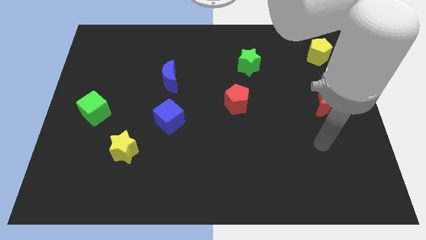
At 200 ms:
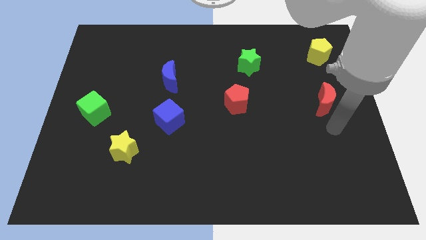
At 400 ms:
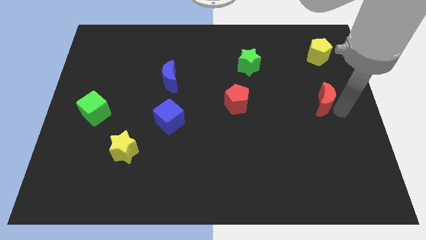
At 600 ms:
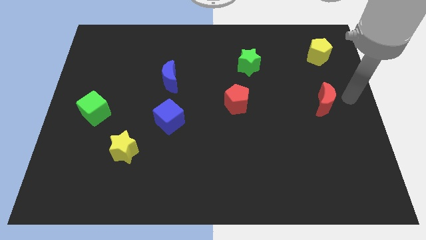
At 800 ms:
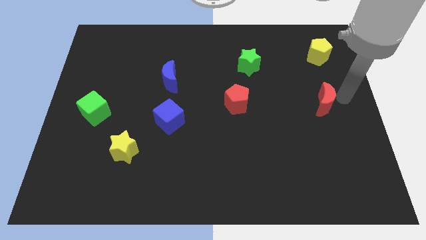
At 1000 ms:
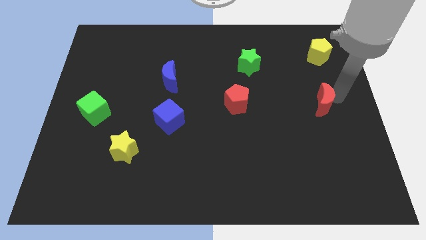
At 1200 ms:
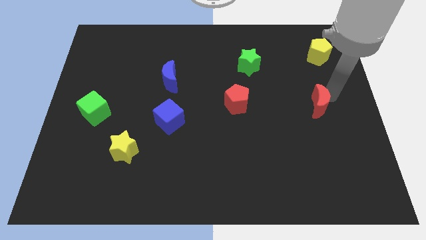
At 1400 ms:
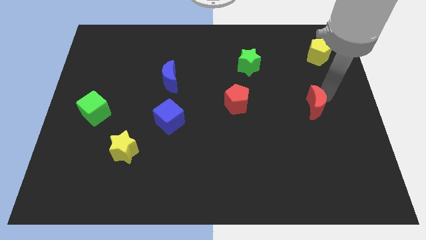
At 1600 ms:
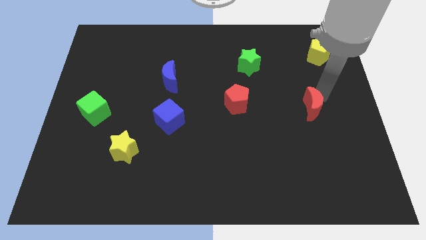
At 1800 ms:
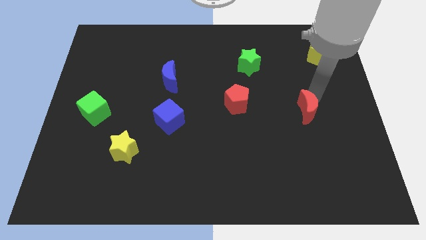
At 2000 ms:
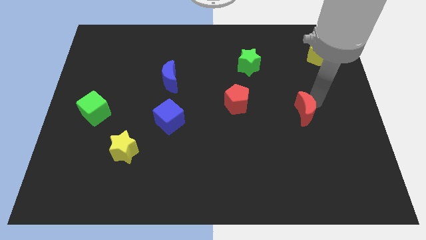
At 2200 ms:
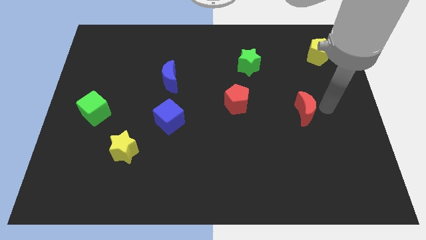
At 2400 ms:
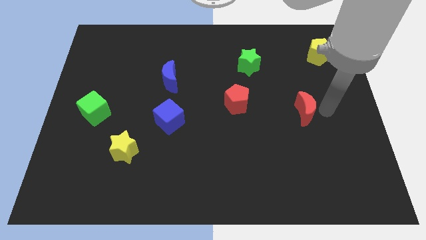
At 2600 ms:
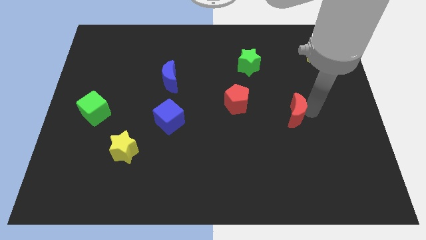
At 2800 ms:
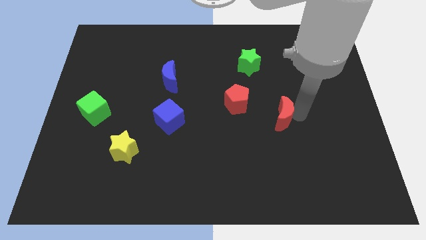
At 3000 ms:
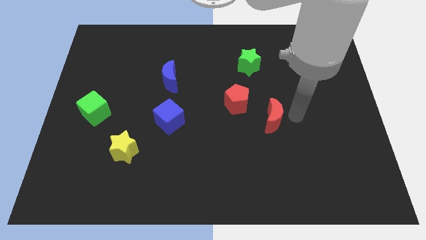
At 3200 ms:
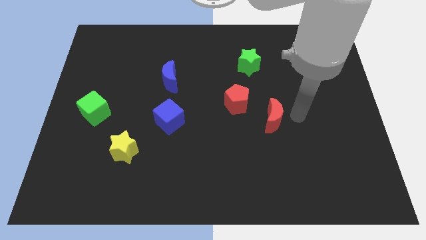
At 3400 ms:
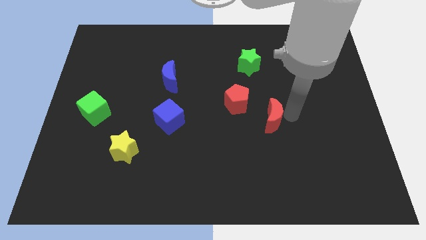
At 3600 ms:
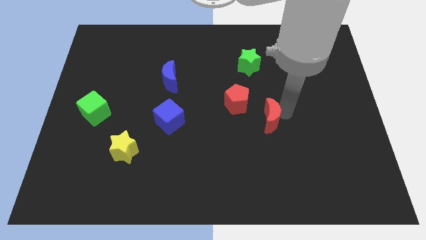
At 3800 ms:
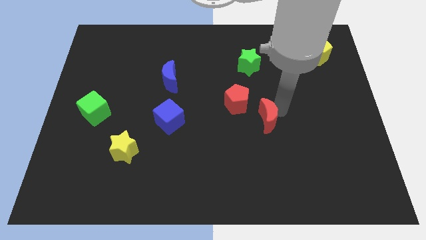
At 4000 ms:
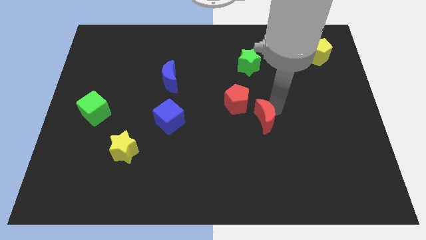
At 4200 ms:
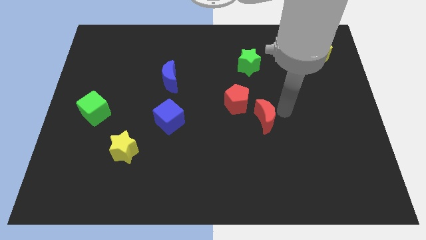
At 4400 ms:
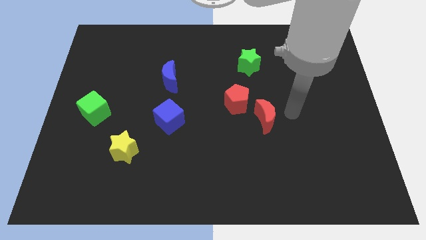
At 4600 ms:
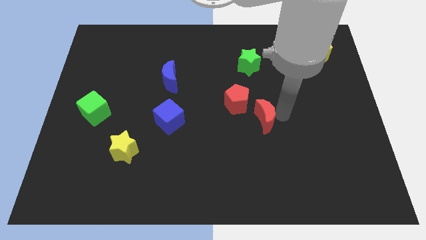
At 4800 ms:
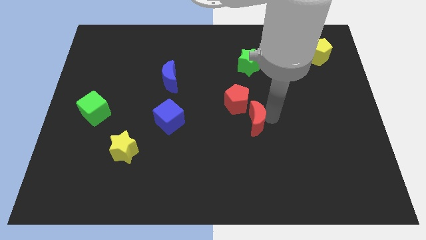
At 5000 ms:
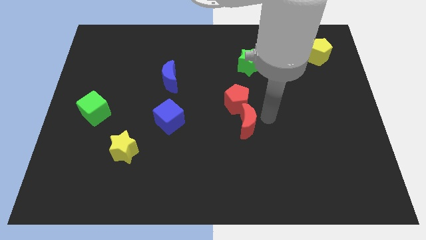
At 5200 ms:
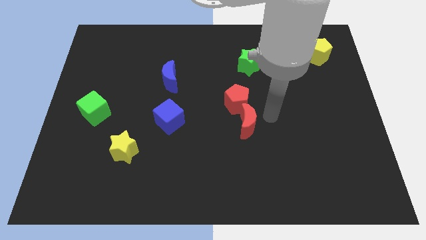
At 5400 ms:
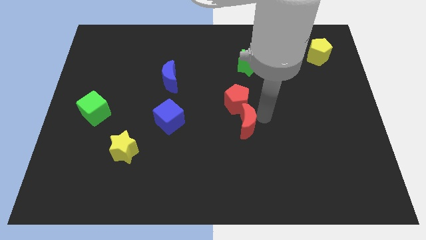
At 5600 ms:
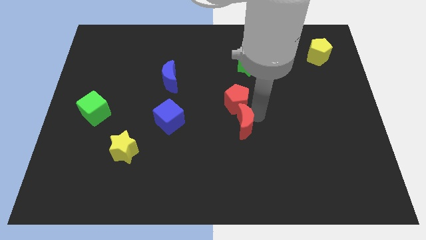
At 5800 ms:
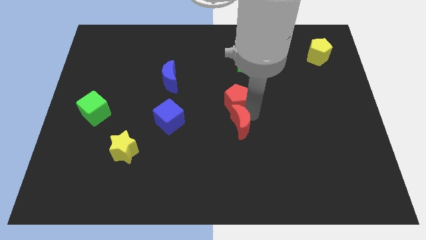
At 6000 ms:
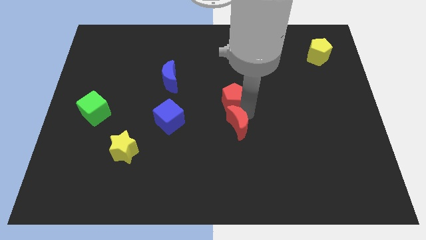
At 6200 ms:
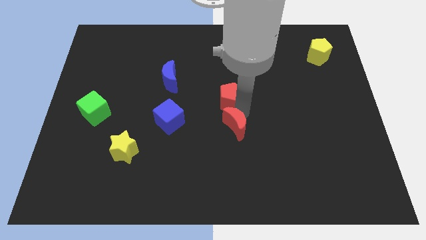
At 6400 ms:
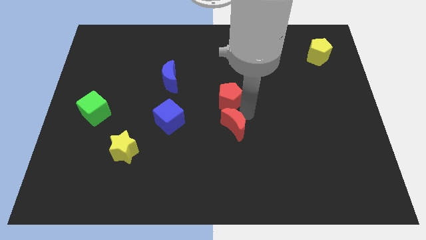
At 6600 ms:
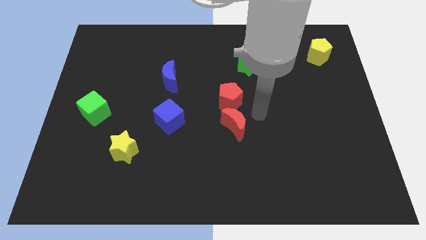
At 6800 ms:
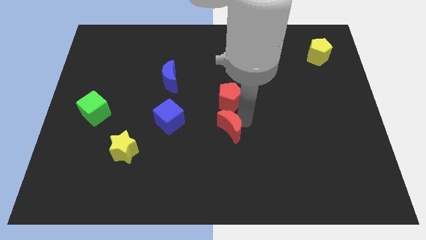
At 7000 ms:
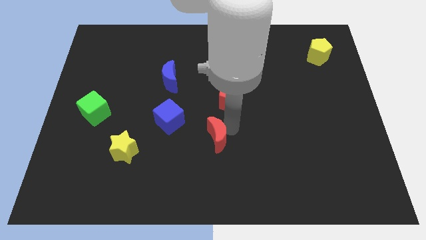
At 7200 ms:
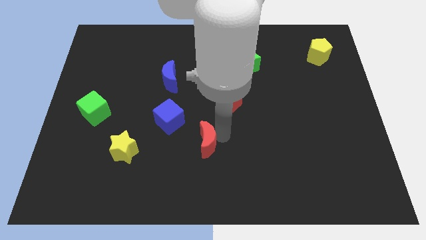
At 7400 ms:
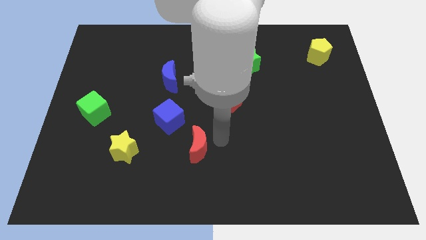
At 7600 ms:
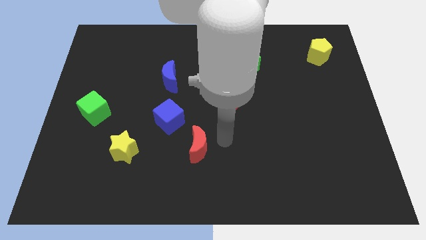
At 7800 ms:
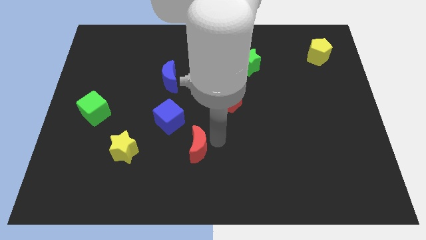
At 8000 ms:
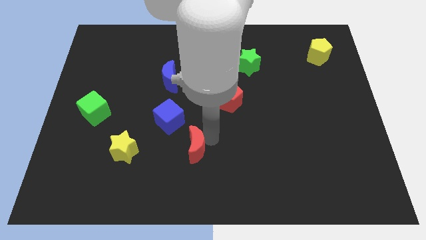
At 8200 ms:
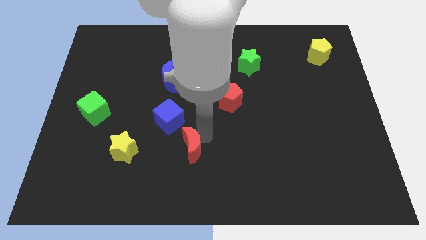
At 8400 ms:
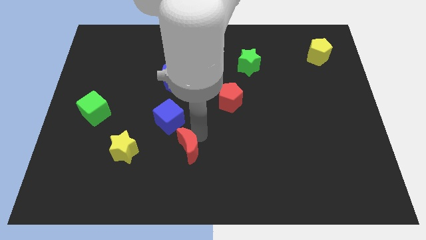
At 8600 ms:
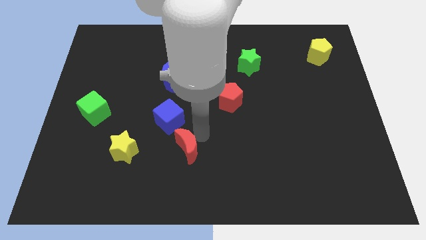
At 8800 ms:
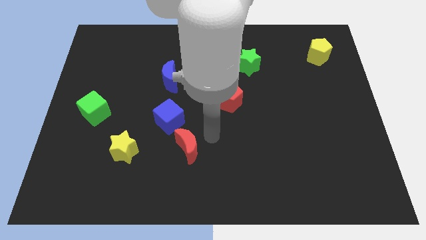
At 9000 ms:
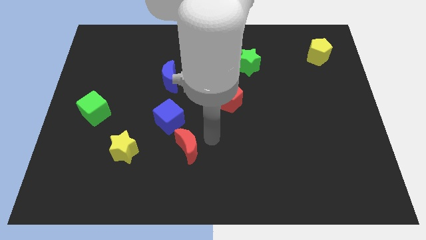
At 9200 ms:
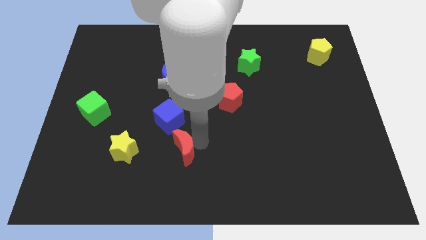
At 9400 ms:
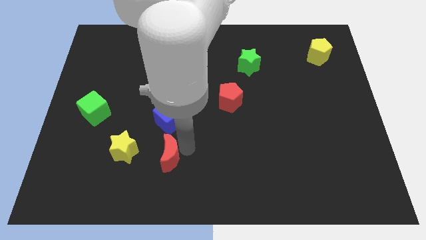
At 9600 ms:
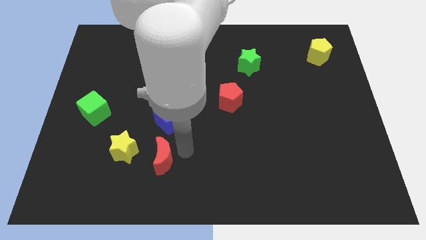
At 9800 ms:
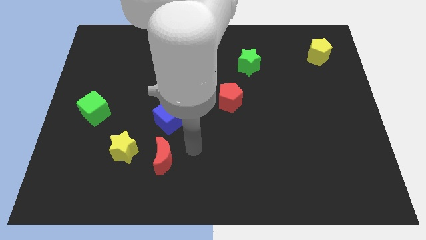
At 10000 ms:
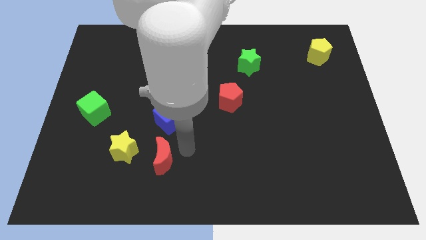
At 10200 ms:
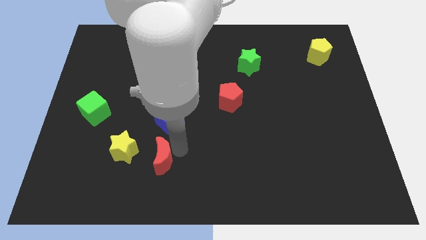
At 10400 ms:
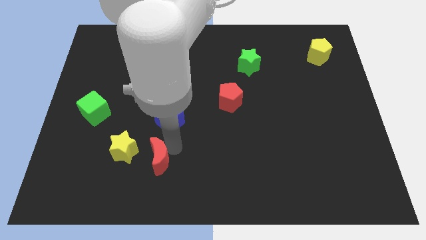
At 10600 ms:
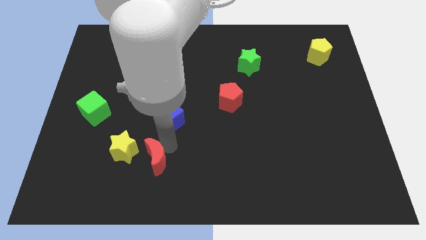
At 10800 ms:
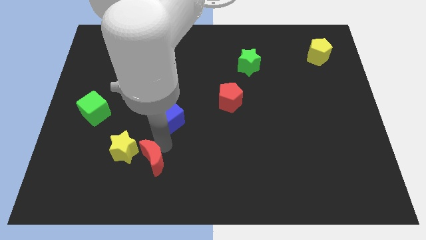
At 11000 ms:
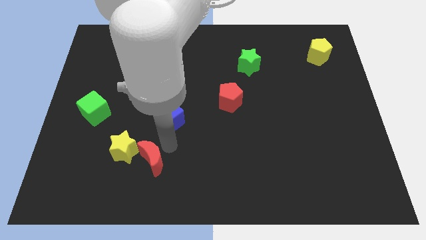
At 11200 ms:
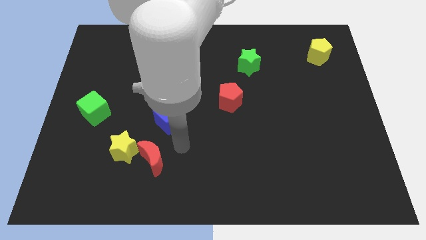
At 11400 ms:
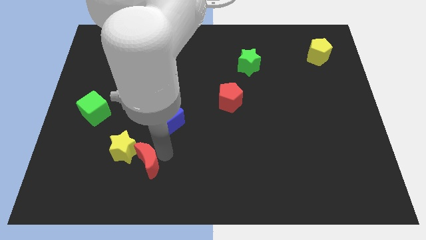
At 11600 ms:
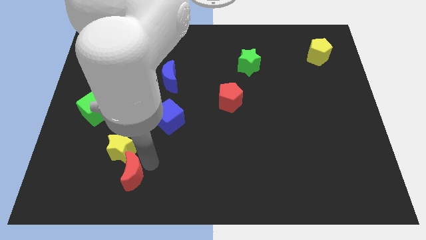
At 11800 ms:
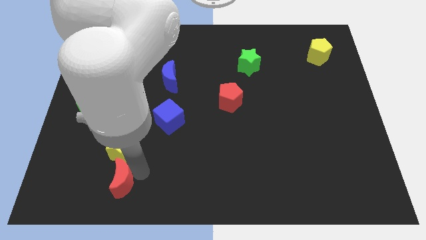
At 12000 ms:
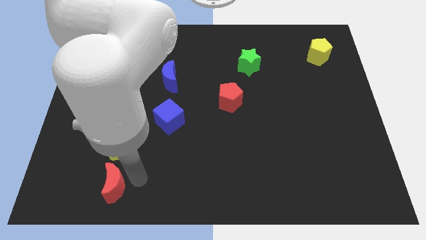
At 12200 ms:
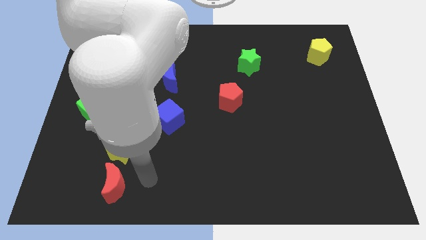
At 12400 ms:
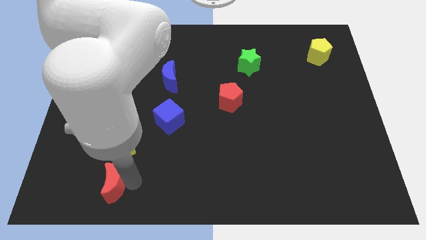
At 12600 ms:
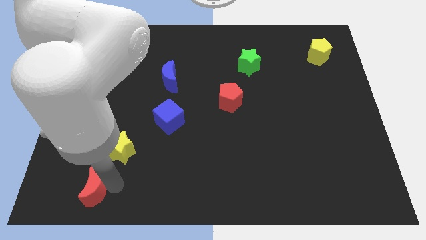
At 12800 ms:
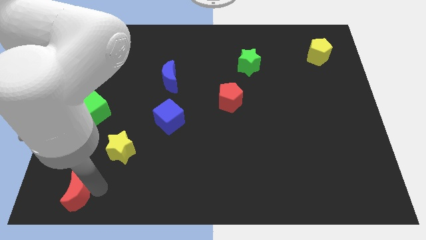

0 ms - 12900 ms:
put the red moon to the bottom left corner

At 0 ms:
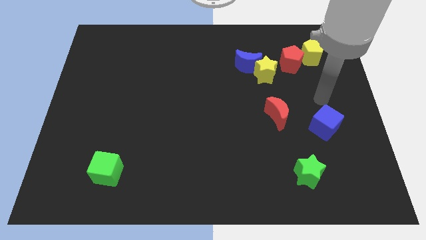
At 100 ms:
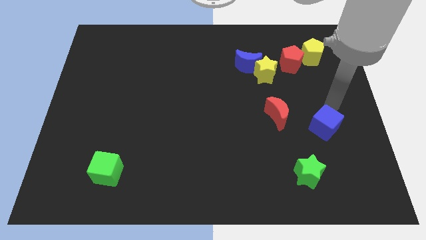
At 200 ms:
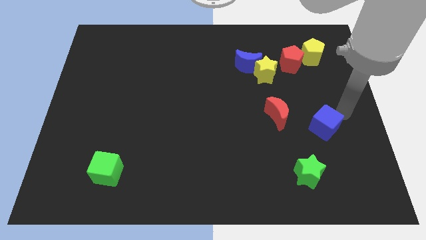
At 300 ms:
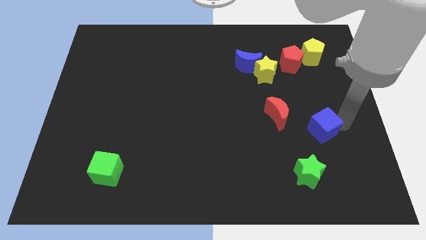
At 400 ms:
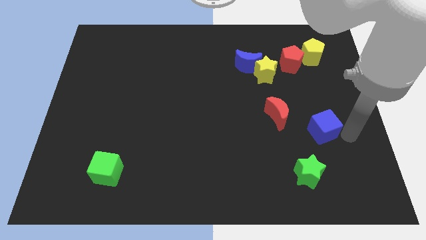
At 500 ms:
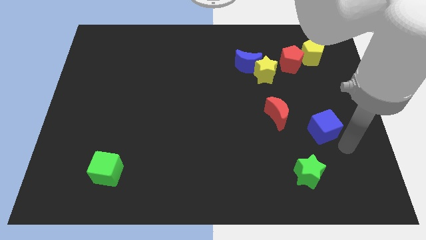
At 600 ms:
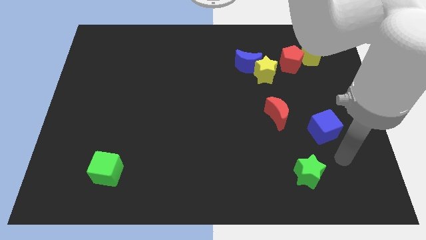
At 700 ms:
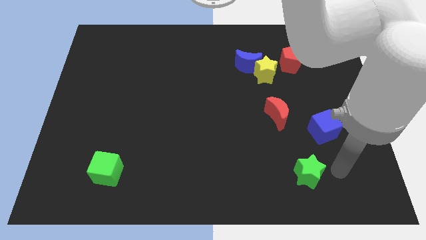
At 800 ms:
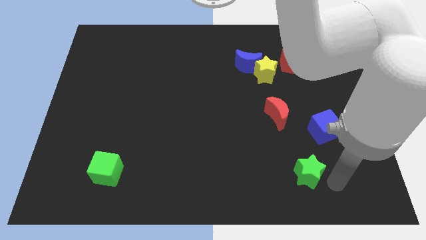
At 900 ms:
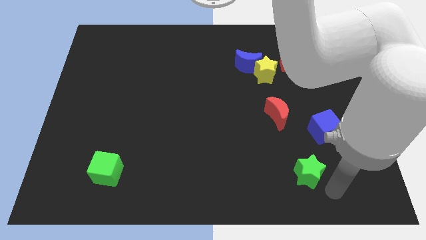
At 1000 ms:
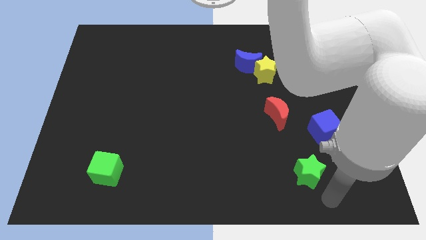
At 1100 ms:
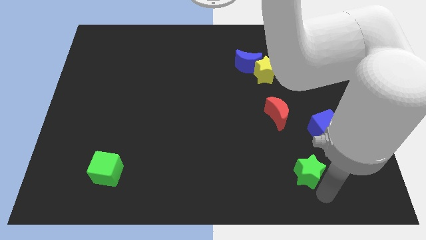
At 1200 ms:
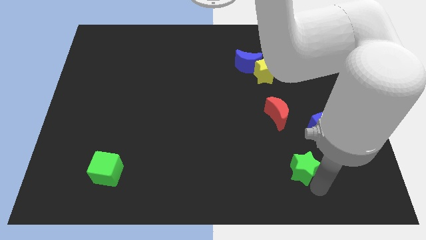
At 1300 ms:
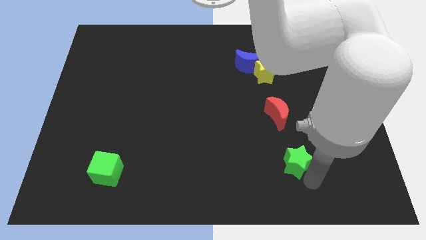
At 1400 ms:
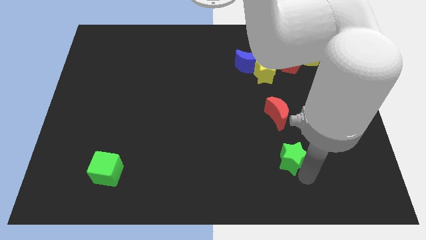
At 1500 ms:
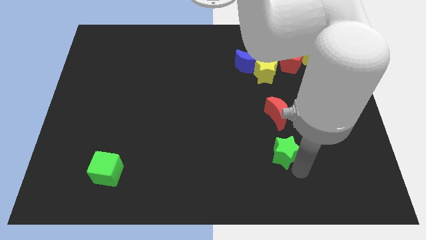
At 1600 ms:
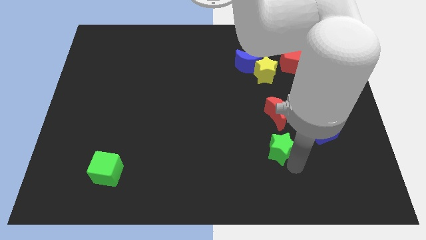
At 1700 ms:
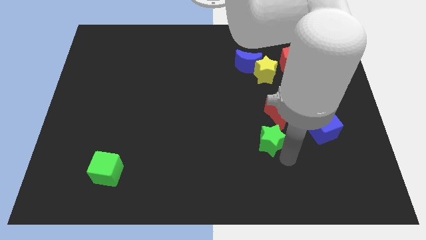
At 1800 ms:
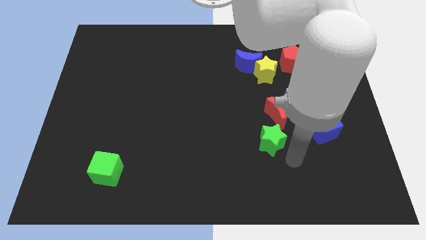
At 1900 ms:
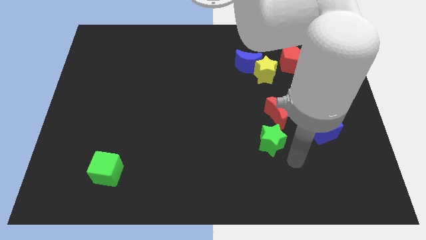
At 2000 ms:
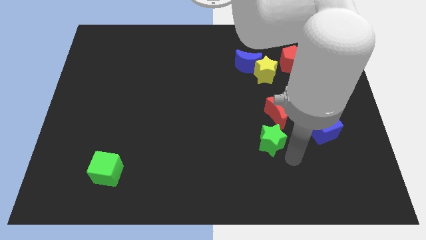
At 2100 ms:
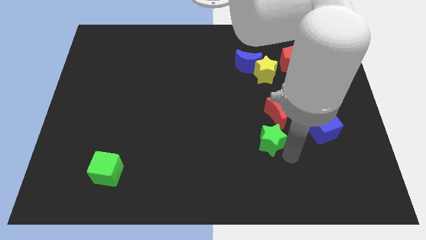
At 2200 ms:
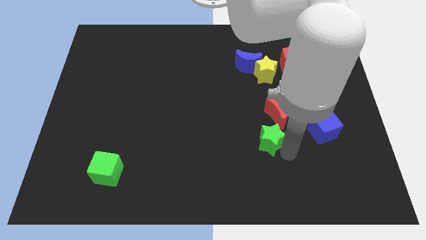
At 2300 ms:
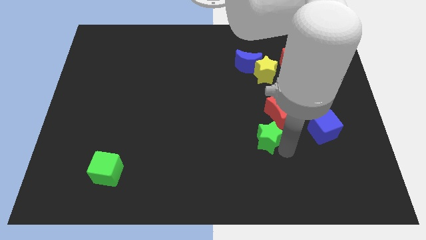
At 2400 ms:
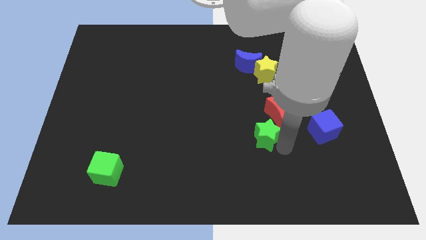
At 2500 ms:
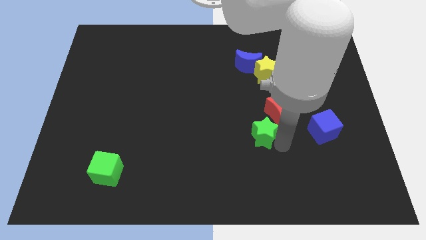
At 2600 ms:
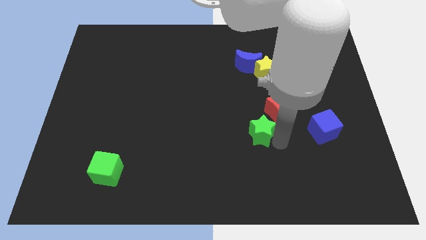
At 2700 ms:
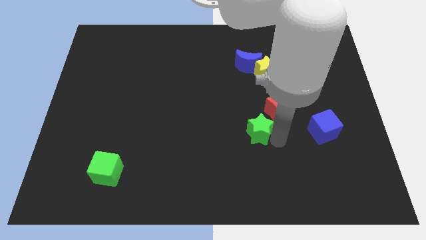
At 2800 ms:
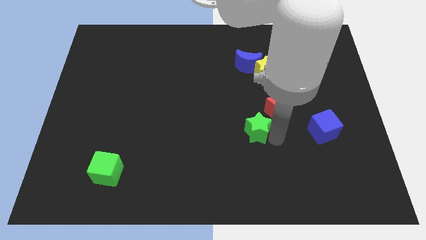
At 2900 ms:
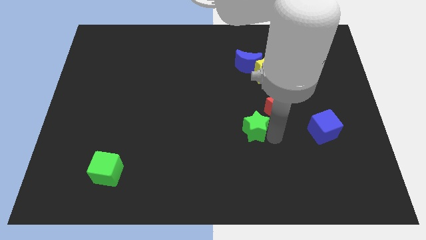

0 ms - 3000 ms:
slide the green star to the center of the board
